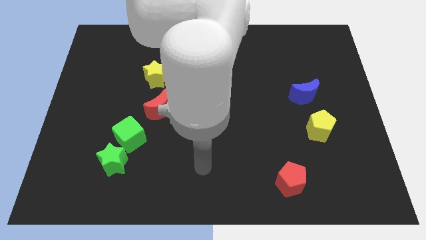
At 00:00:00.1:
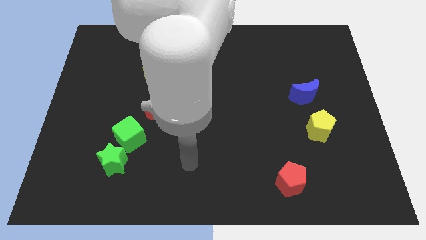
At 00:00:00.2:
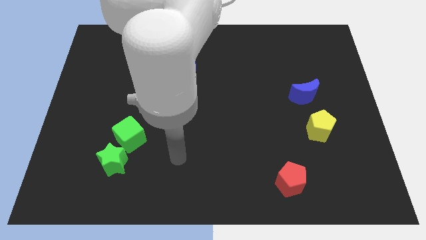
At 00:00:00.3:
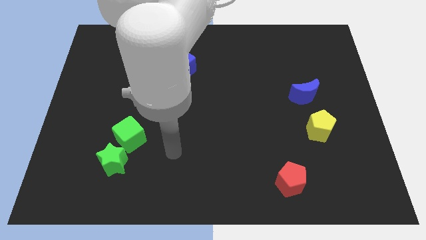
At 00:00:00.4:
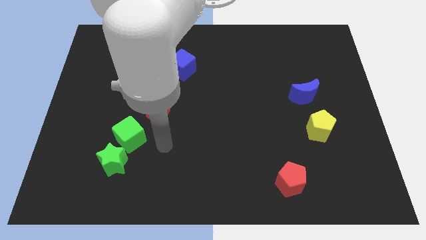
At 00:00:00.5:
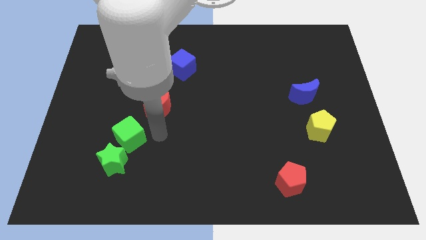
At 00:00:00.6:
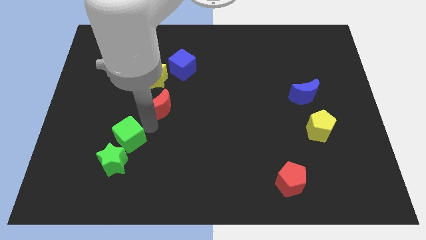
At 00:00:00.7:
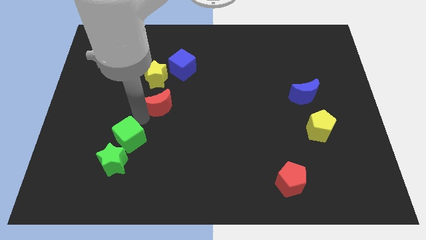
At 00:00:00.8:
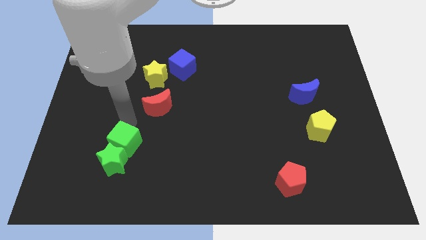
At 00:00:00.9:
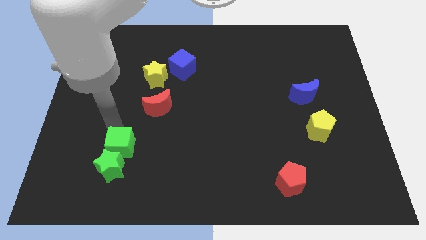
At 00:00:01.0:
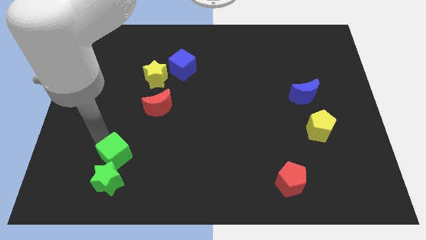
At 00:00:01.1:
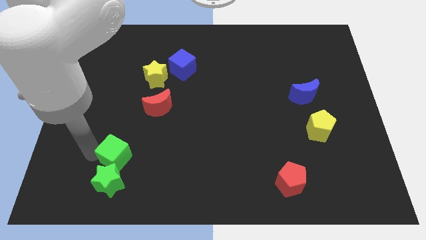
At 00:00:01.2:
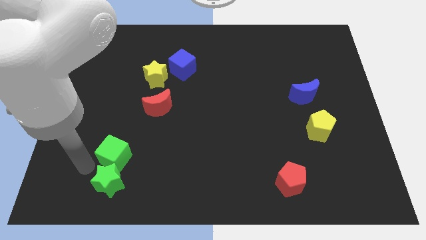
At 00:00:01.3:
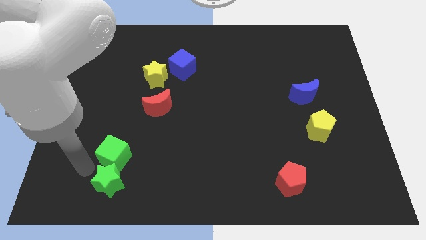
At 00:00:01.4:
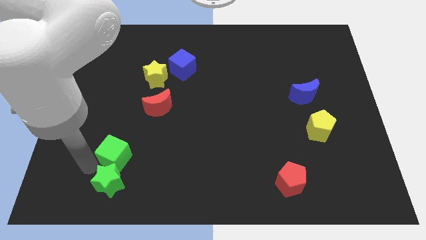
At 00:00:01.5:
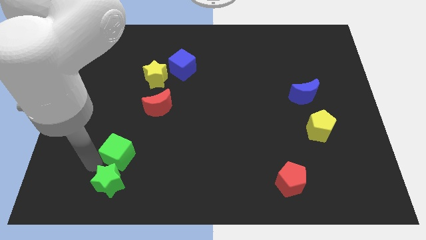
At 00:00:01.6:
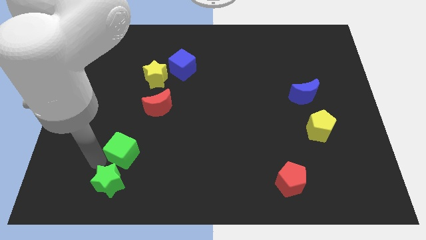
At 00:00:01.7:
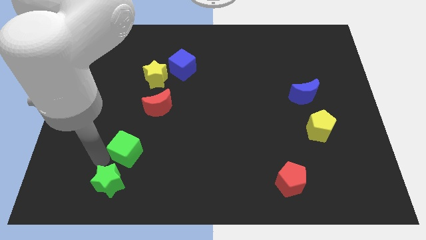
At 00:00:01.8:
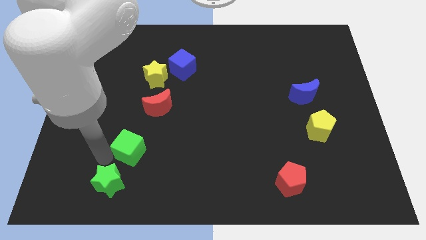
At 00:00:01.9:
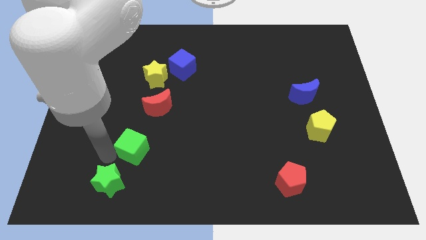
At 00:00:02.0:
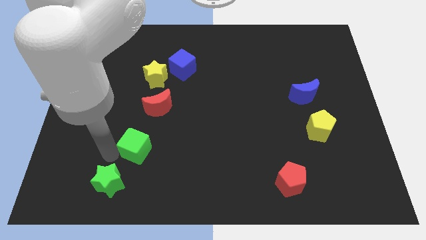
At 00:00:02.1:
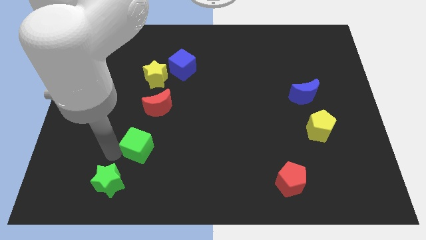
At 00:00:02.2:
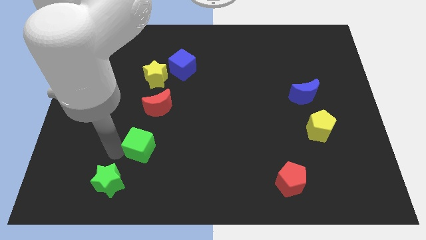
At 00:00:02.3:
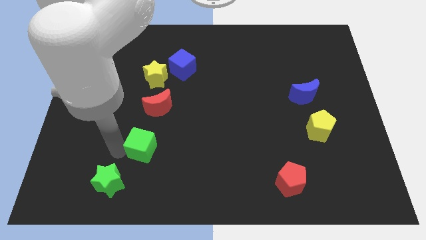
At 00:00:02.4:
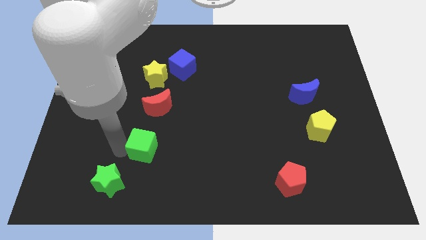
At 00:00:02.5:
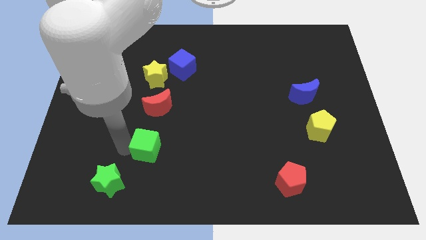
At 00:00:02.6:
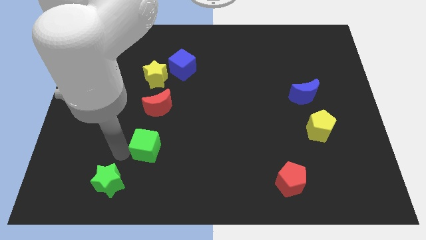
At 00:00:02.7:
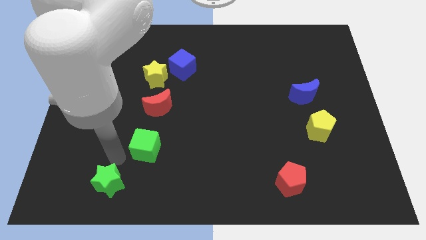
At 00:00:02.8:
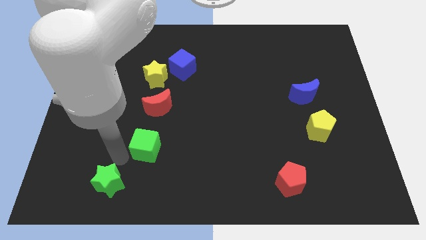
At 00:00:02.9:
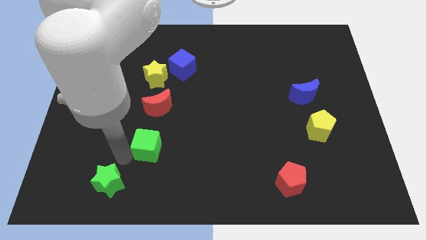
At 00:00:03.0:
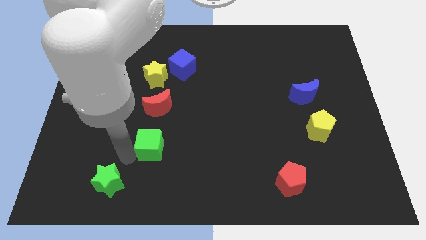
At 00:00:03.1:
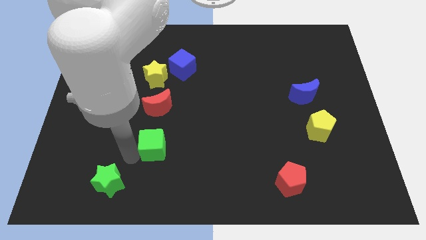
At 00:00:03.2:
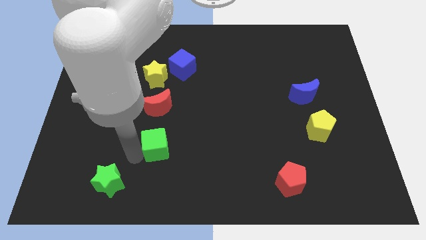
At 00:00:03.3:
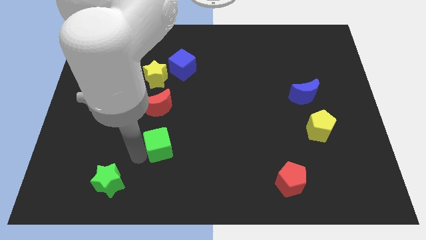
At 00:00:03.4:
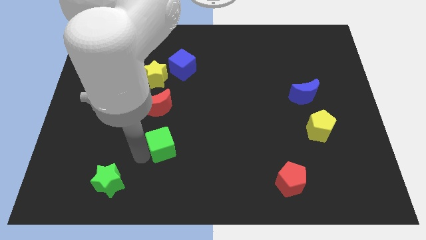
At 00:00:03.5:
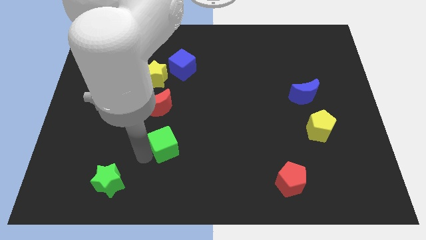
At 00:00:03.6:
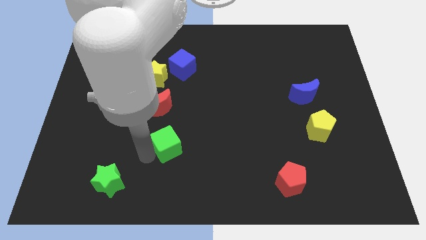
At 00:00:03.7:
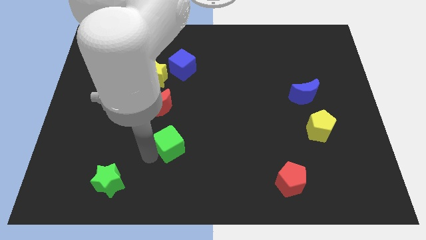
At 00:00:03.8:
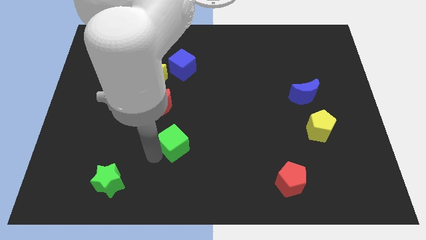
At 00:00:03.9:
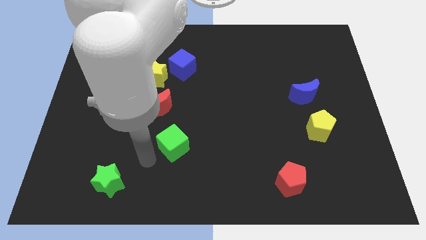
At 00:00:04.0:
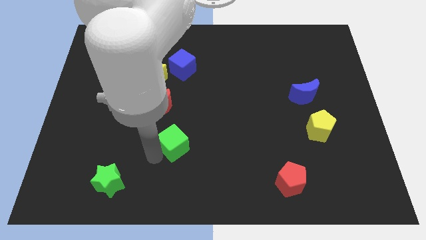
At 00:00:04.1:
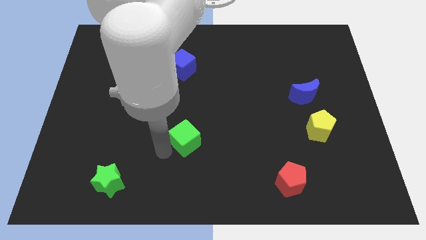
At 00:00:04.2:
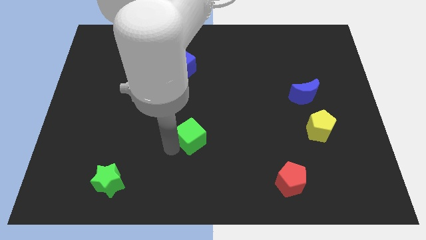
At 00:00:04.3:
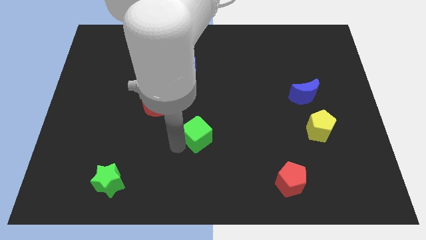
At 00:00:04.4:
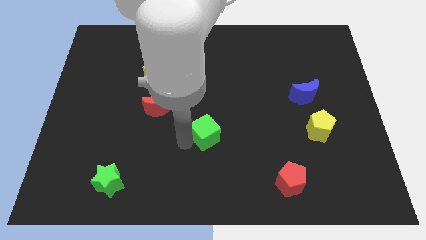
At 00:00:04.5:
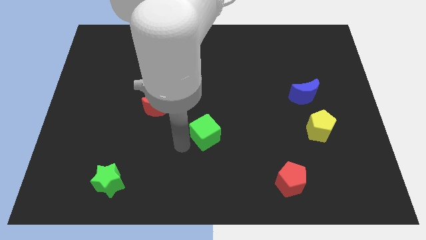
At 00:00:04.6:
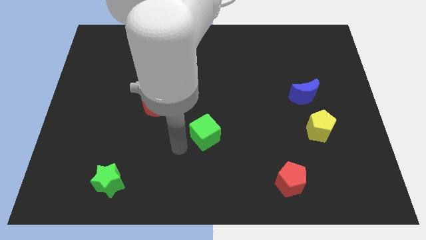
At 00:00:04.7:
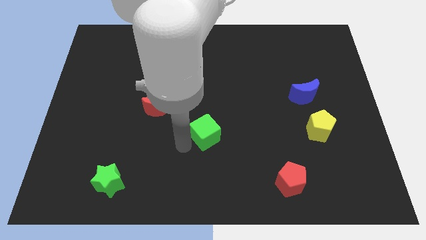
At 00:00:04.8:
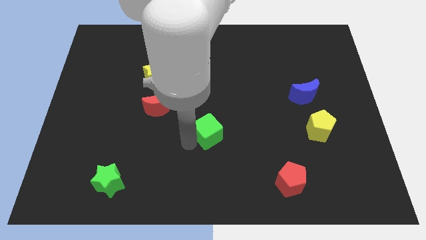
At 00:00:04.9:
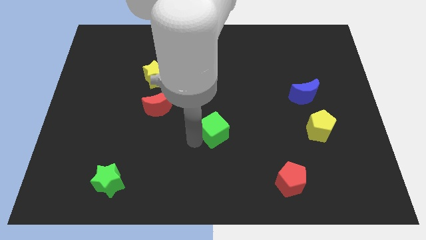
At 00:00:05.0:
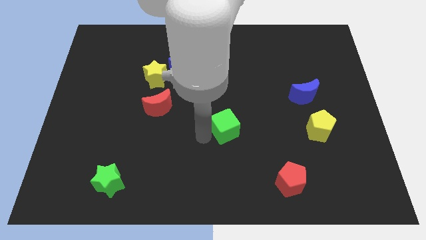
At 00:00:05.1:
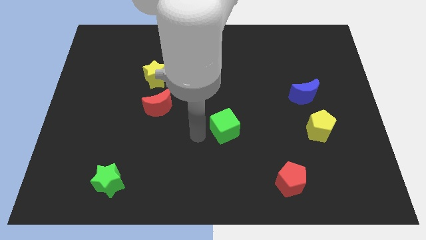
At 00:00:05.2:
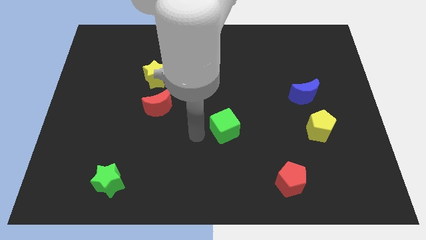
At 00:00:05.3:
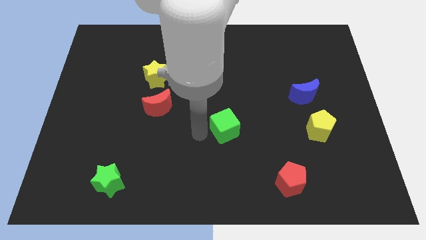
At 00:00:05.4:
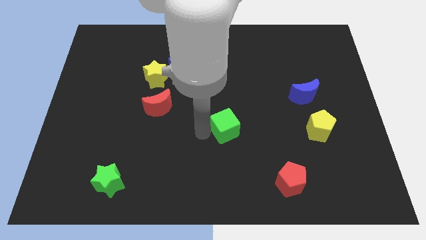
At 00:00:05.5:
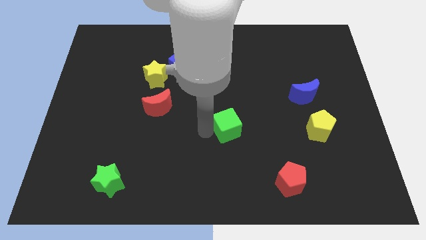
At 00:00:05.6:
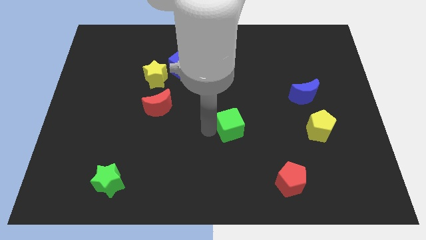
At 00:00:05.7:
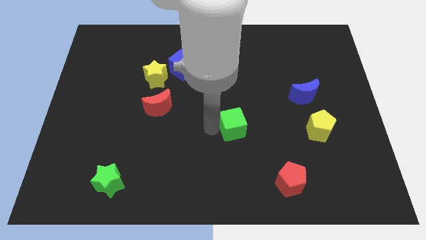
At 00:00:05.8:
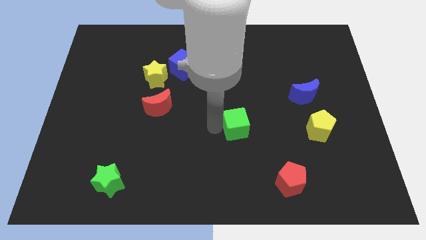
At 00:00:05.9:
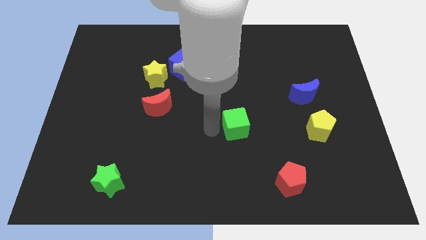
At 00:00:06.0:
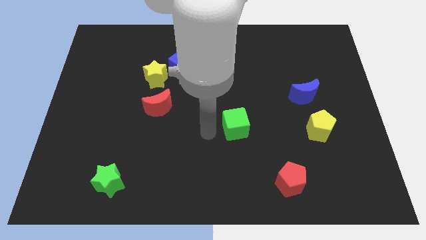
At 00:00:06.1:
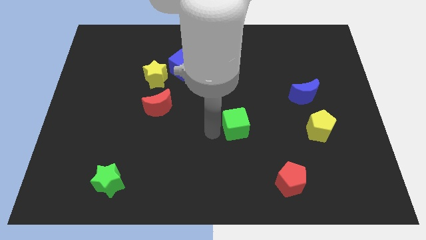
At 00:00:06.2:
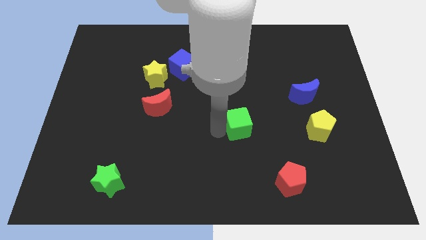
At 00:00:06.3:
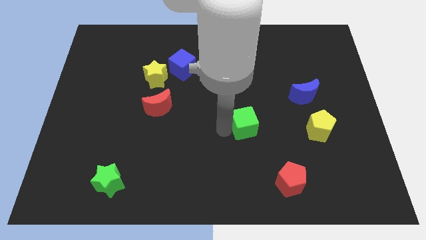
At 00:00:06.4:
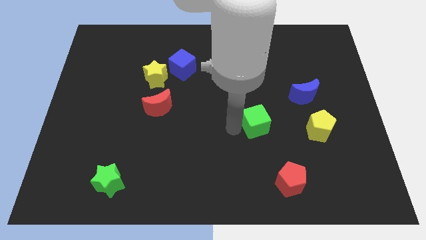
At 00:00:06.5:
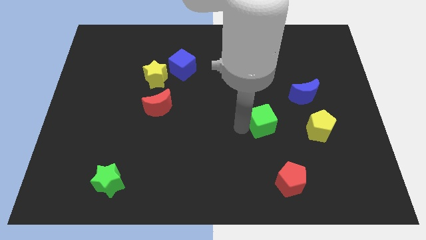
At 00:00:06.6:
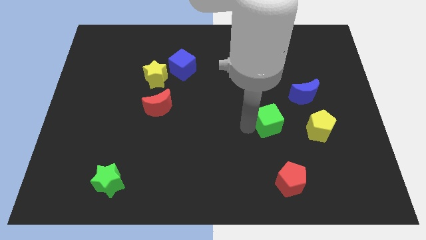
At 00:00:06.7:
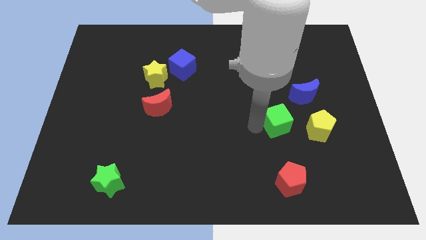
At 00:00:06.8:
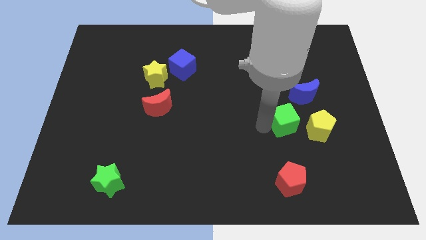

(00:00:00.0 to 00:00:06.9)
slide the green cube to the top left side of the yellow pentagon

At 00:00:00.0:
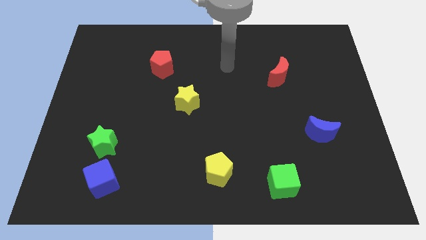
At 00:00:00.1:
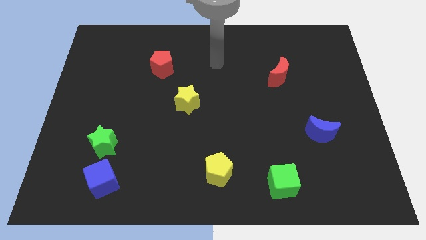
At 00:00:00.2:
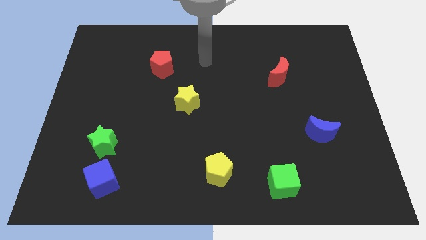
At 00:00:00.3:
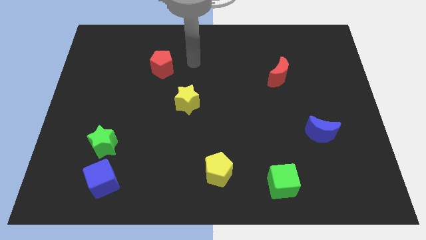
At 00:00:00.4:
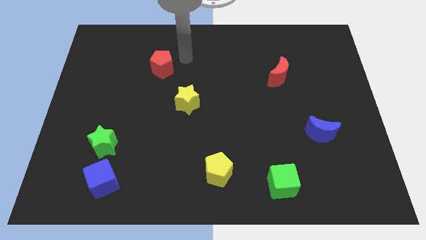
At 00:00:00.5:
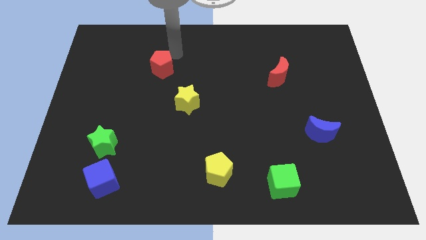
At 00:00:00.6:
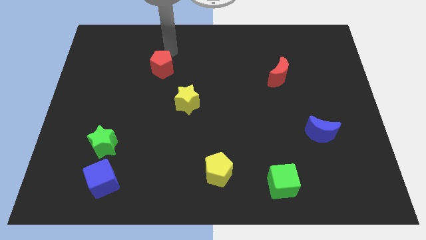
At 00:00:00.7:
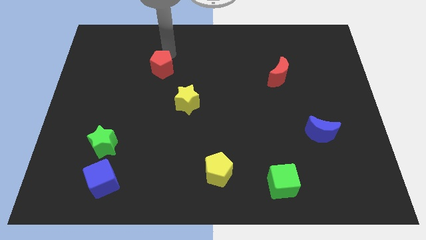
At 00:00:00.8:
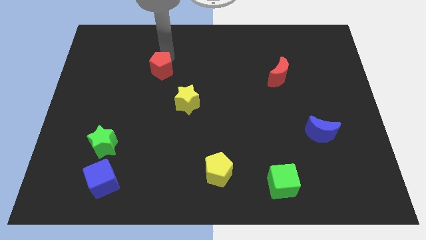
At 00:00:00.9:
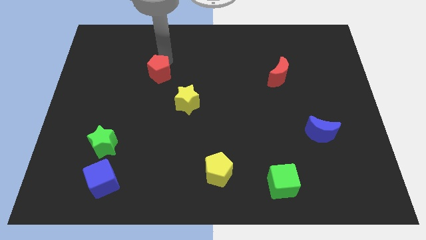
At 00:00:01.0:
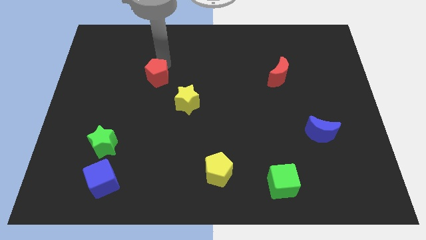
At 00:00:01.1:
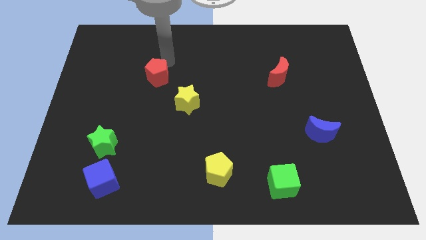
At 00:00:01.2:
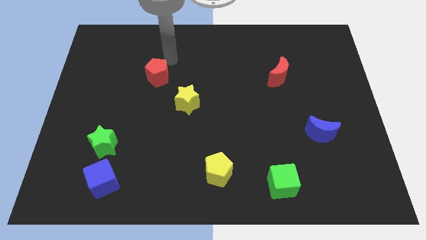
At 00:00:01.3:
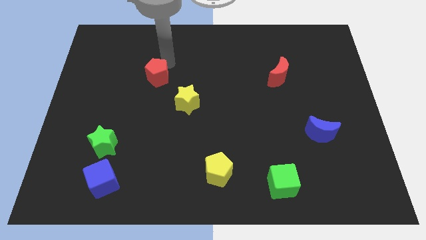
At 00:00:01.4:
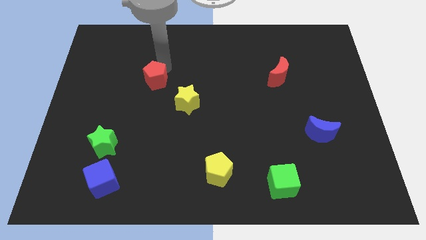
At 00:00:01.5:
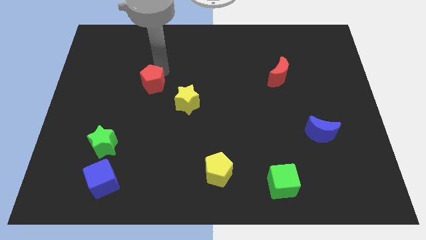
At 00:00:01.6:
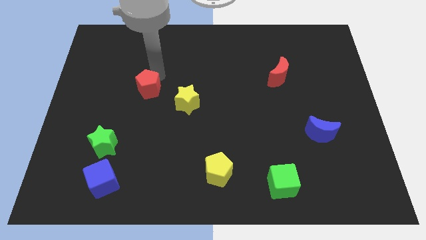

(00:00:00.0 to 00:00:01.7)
put the red pentagon to the left side of the yellow star
